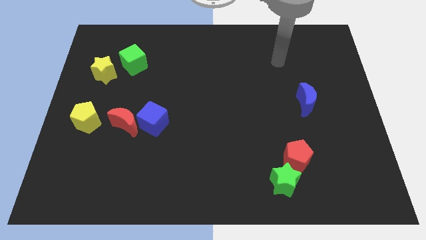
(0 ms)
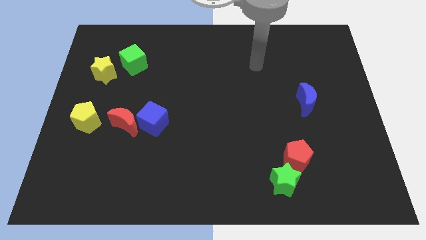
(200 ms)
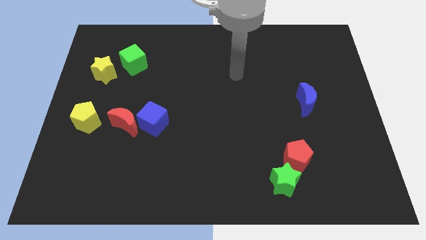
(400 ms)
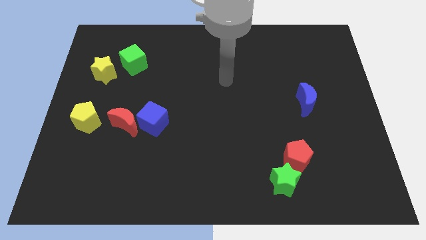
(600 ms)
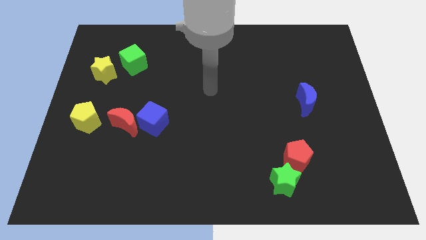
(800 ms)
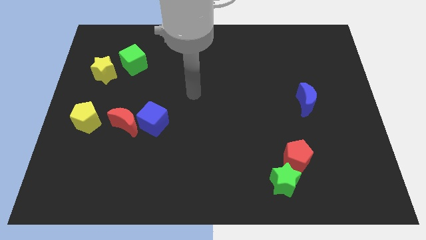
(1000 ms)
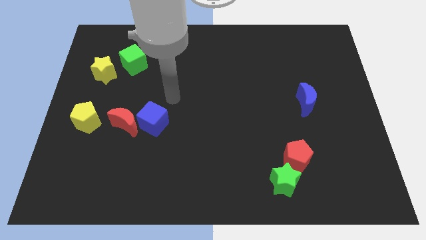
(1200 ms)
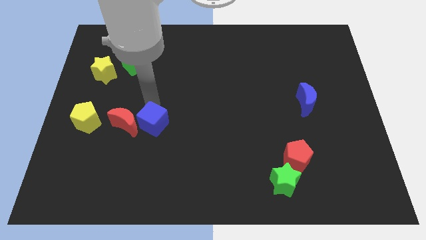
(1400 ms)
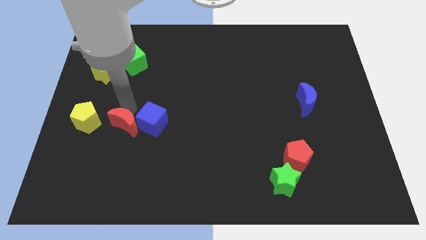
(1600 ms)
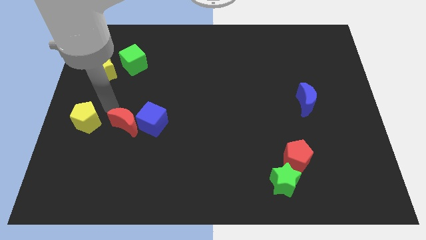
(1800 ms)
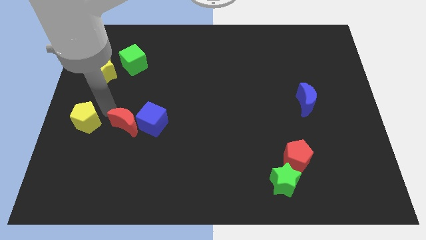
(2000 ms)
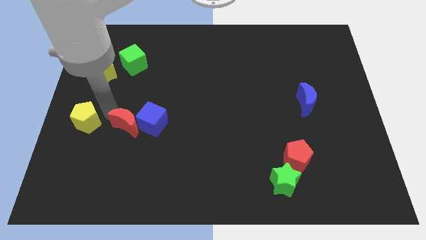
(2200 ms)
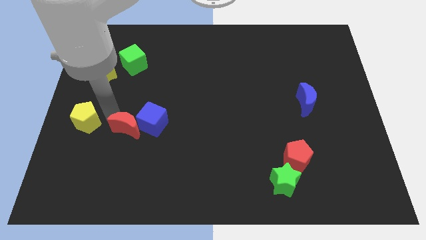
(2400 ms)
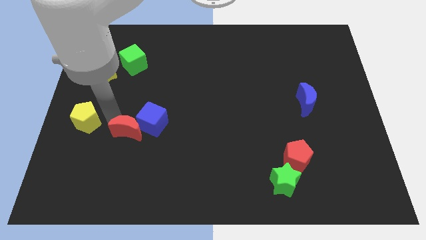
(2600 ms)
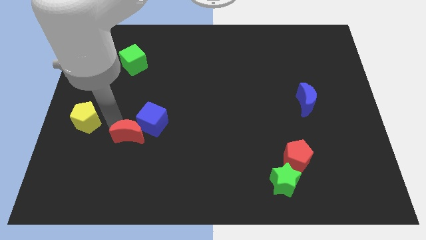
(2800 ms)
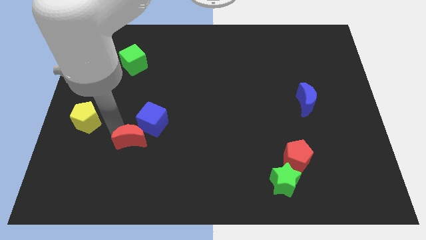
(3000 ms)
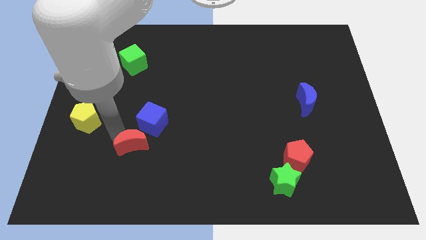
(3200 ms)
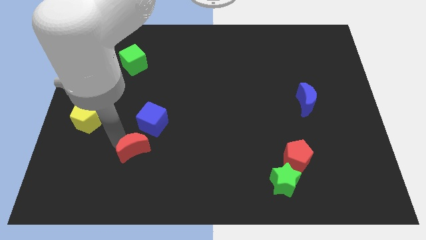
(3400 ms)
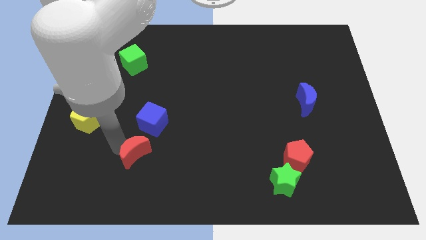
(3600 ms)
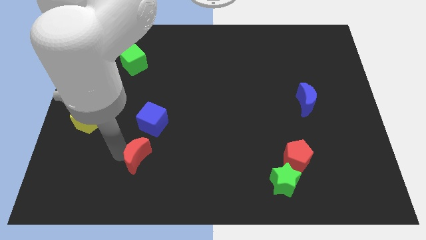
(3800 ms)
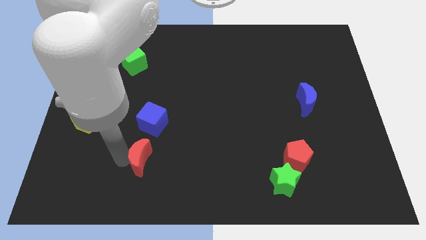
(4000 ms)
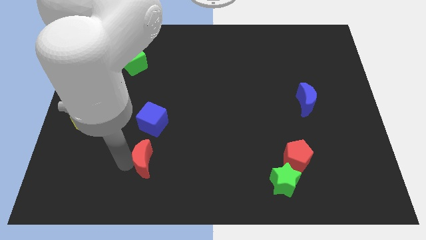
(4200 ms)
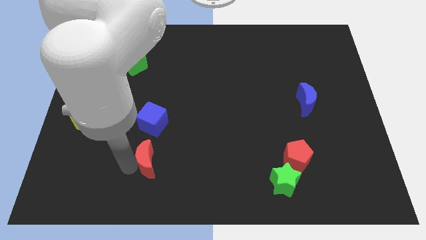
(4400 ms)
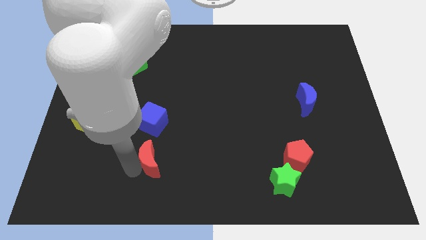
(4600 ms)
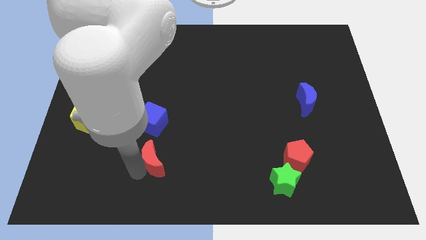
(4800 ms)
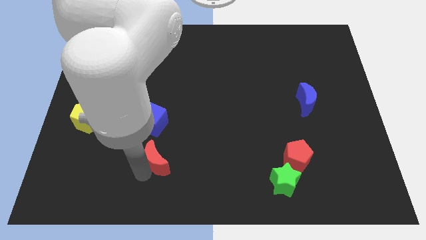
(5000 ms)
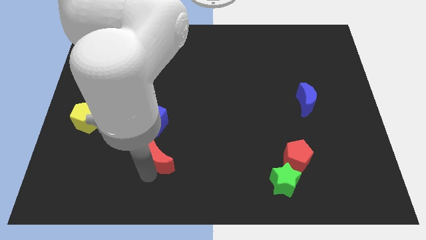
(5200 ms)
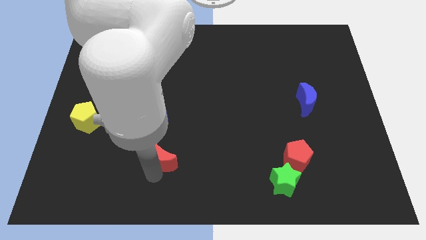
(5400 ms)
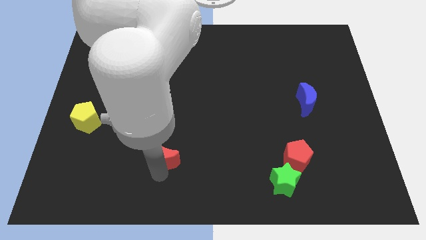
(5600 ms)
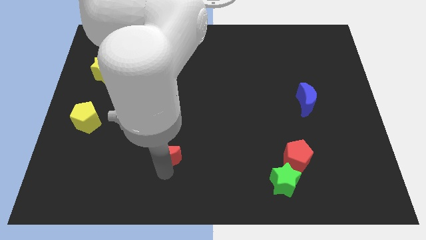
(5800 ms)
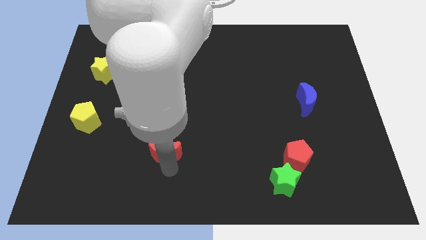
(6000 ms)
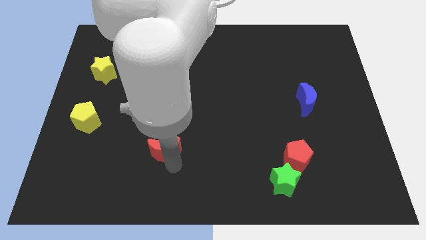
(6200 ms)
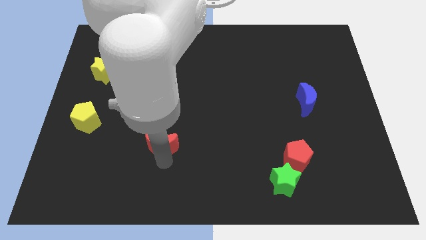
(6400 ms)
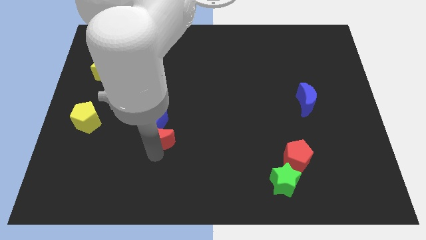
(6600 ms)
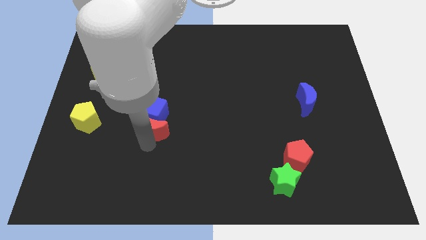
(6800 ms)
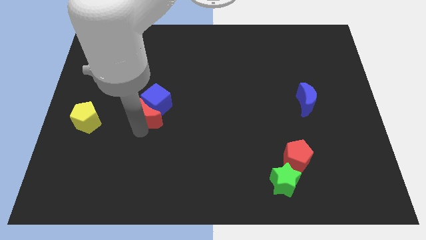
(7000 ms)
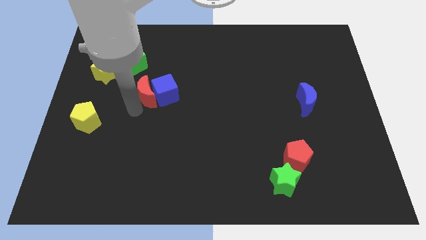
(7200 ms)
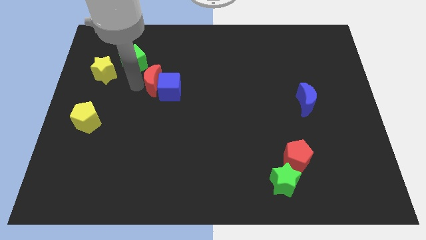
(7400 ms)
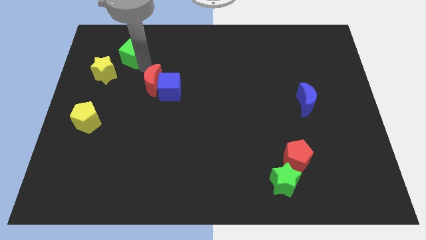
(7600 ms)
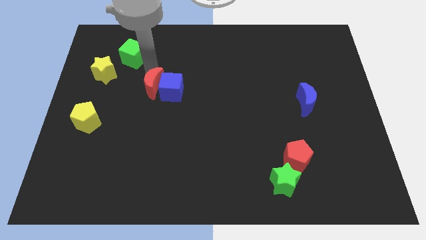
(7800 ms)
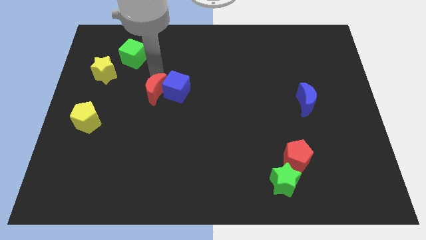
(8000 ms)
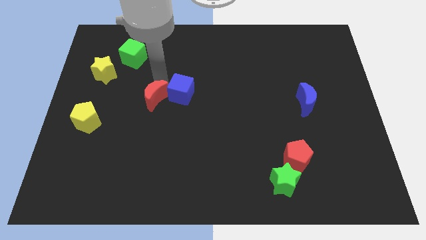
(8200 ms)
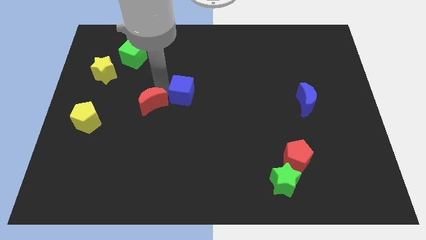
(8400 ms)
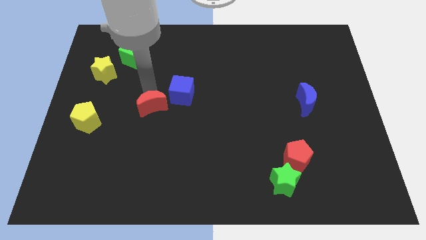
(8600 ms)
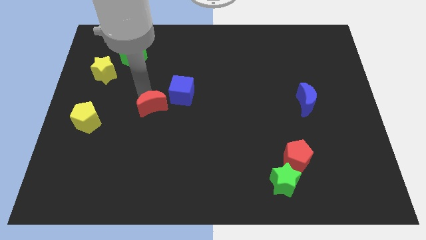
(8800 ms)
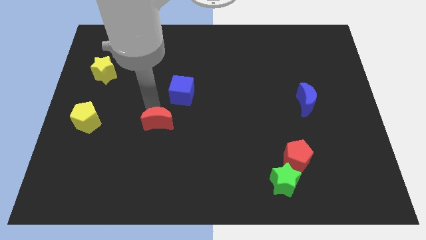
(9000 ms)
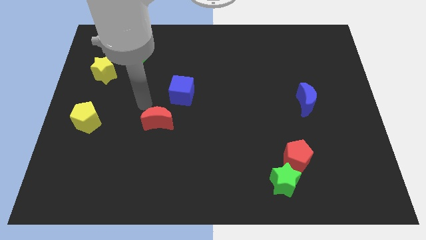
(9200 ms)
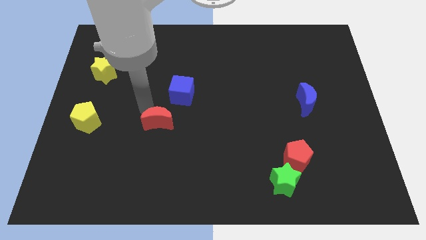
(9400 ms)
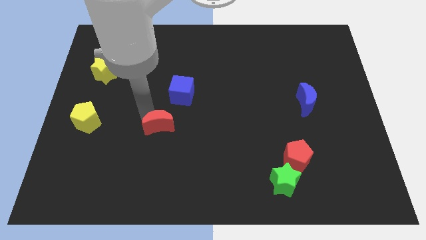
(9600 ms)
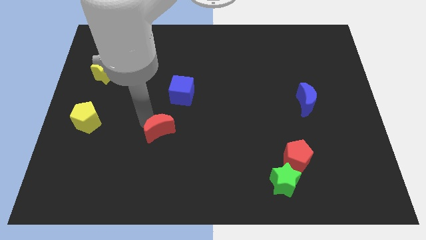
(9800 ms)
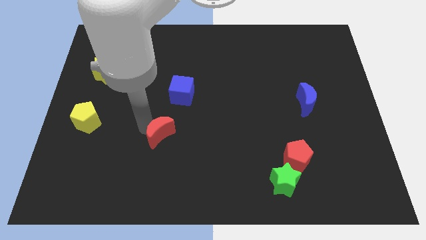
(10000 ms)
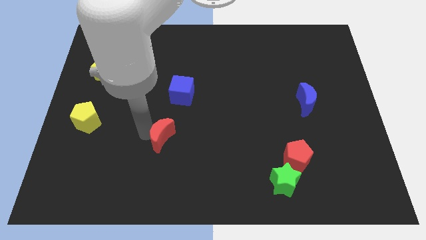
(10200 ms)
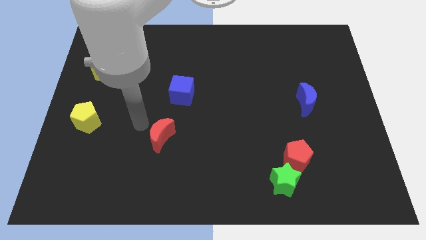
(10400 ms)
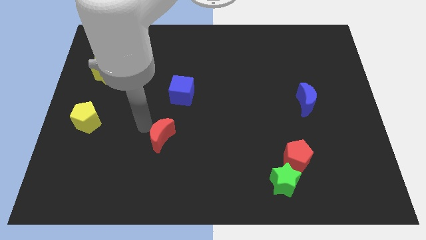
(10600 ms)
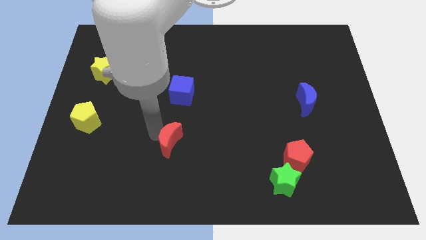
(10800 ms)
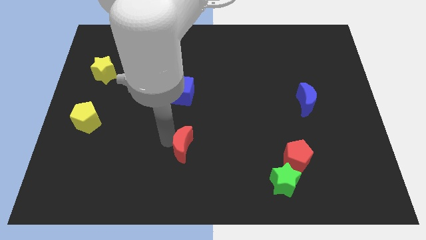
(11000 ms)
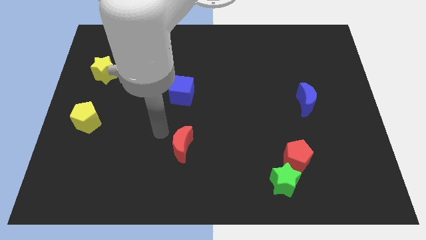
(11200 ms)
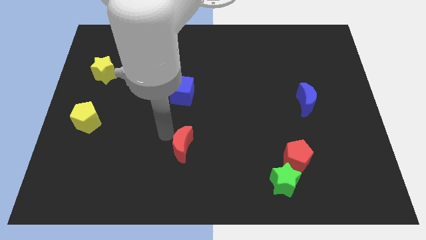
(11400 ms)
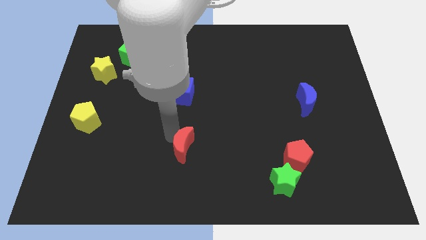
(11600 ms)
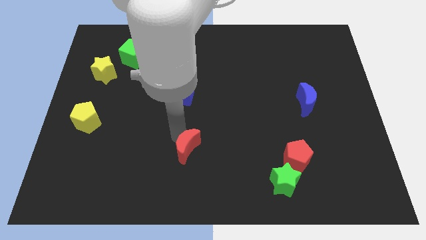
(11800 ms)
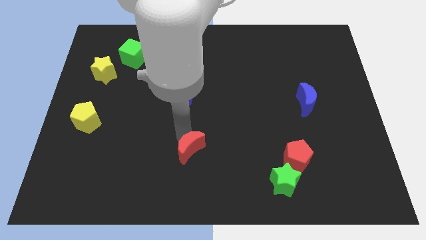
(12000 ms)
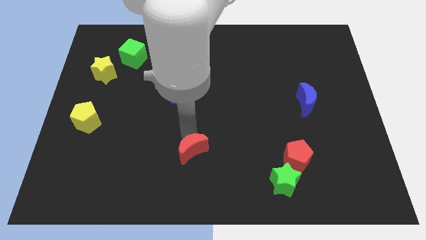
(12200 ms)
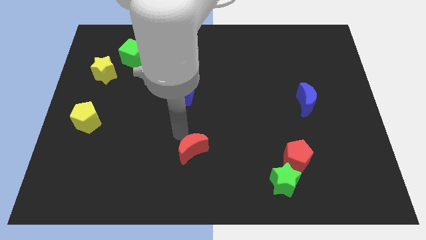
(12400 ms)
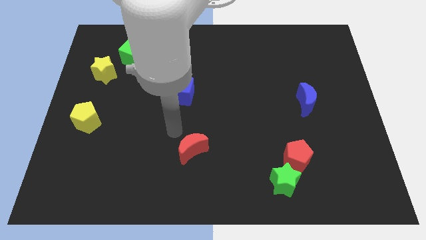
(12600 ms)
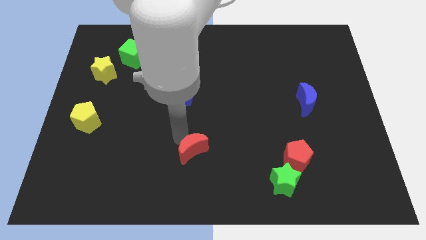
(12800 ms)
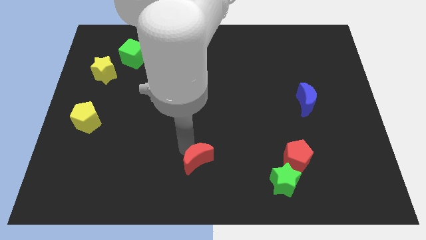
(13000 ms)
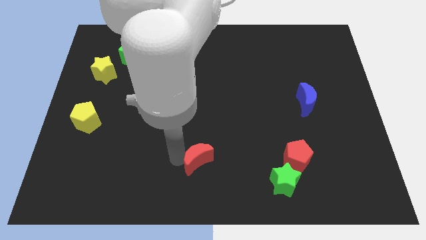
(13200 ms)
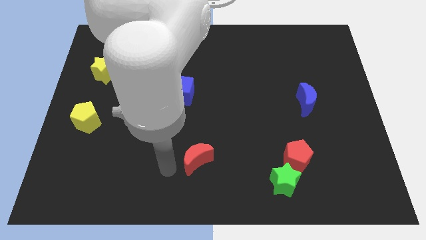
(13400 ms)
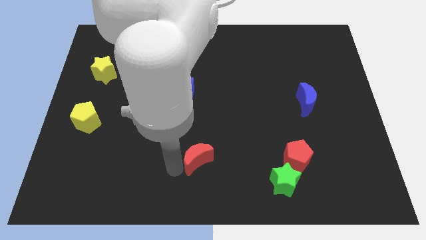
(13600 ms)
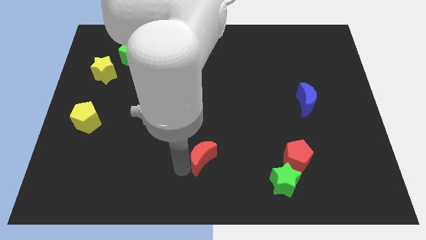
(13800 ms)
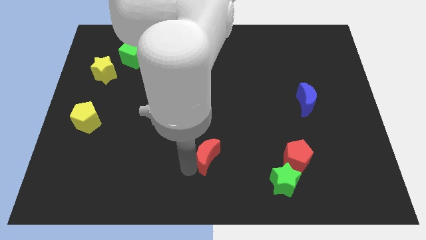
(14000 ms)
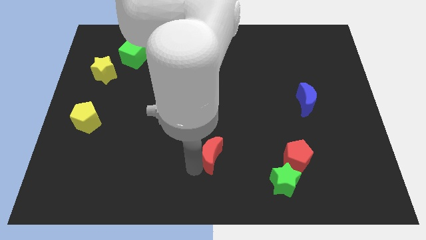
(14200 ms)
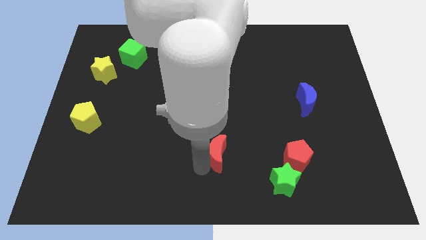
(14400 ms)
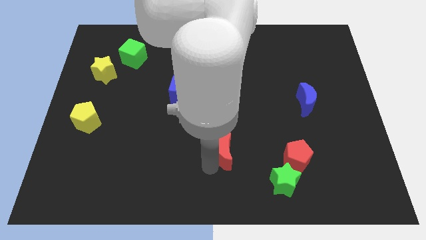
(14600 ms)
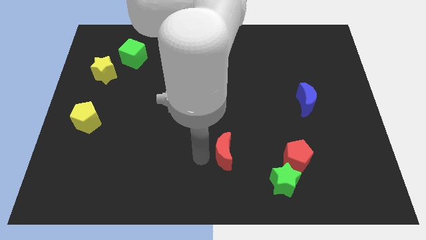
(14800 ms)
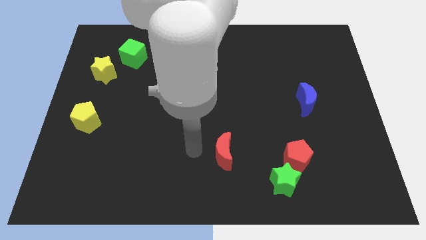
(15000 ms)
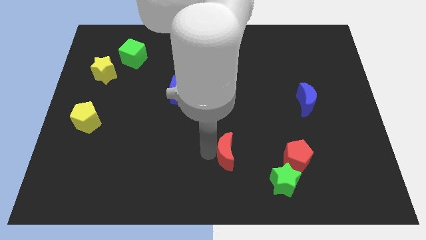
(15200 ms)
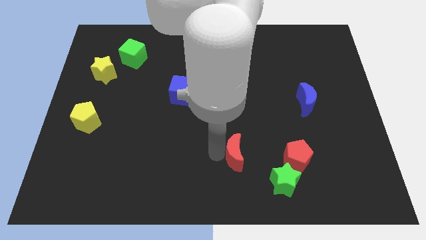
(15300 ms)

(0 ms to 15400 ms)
put the red moon to the top left side of the green star

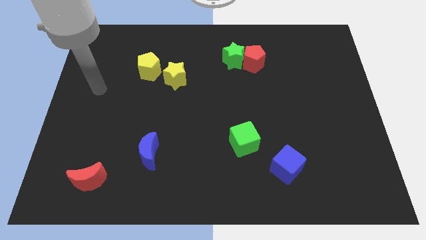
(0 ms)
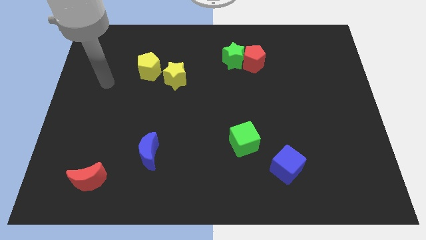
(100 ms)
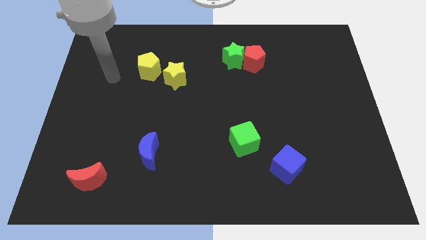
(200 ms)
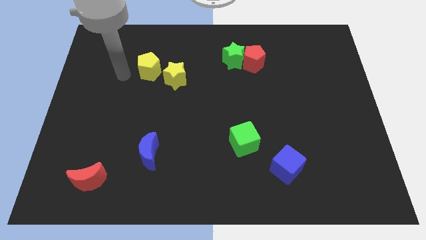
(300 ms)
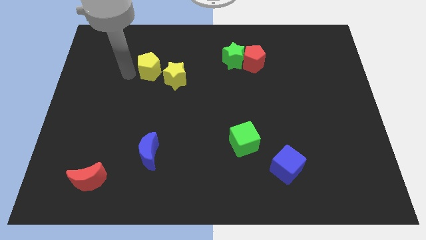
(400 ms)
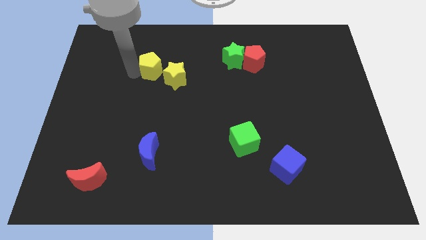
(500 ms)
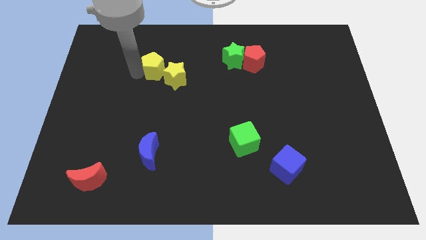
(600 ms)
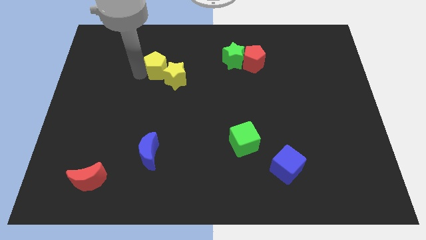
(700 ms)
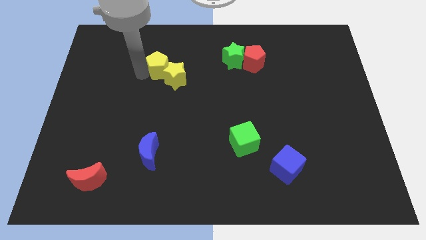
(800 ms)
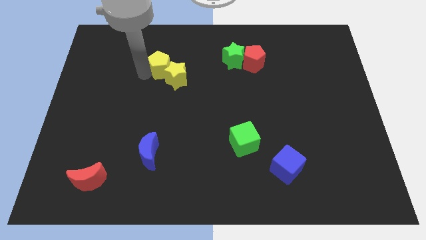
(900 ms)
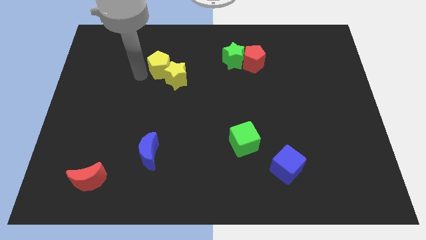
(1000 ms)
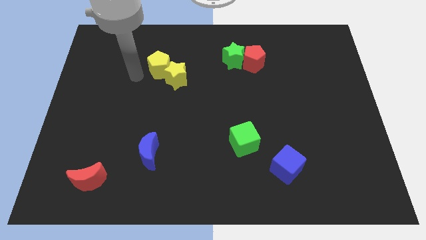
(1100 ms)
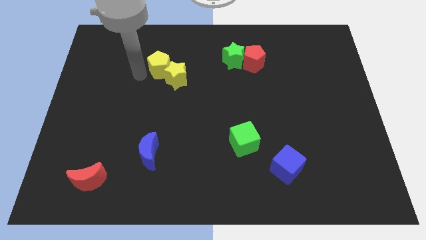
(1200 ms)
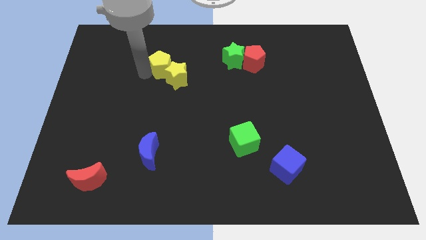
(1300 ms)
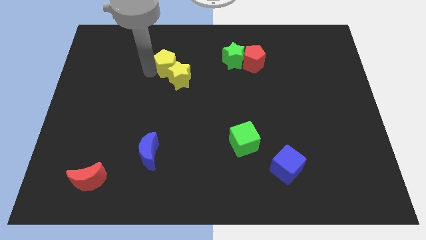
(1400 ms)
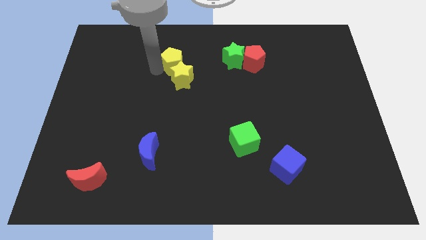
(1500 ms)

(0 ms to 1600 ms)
slide the yellow pentagon just left of the green star
